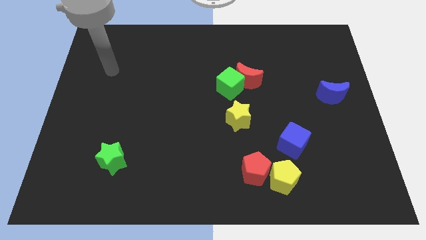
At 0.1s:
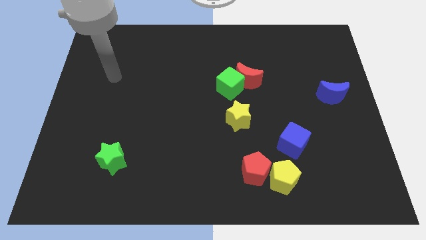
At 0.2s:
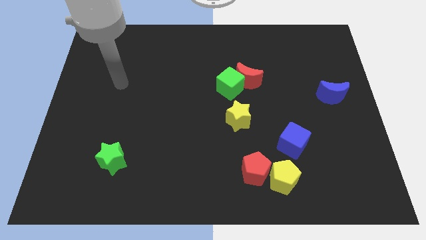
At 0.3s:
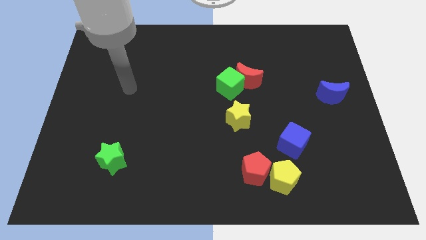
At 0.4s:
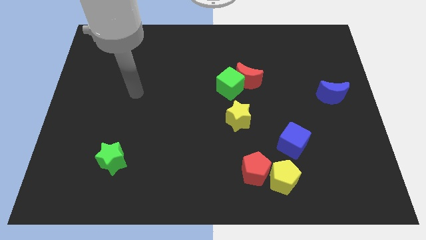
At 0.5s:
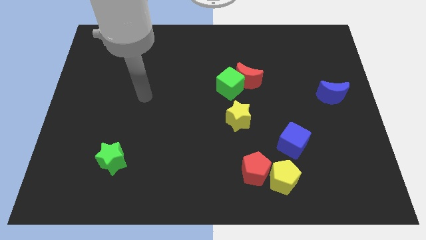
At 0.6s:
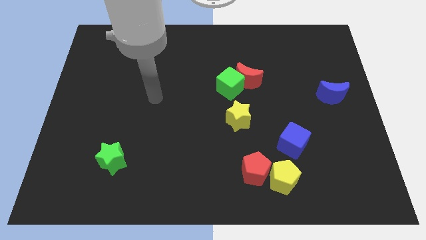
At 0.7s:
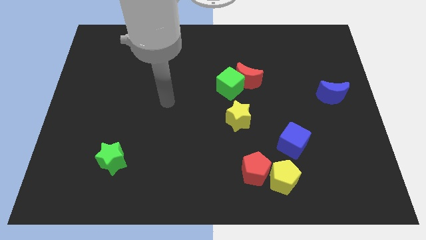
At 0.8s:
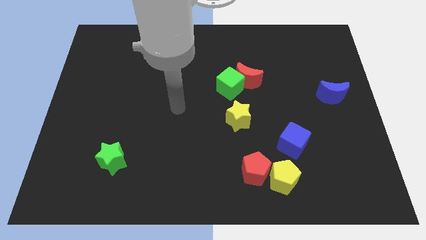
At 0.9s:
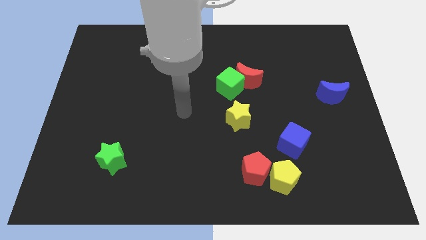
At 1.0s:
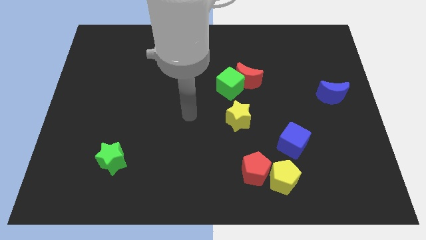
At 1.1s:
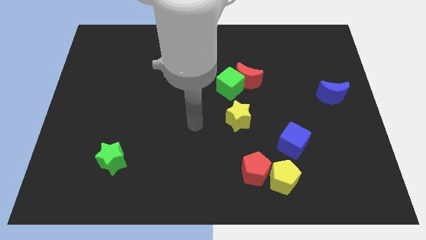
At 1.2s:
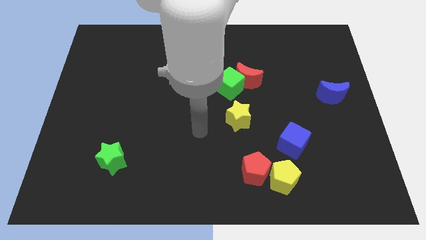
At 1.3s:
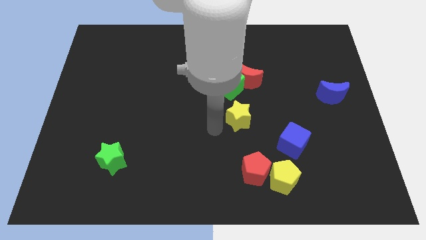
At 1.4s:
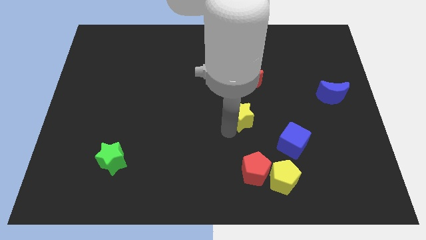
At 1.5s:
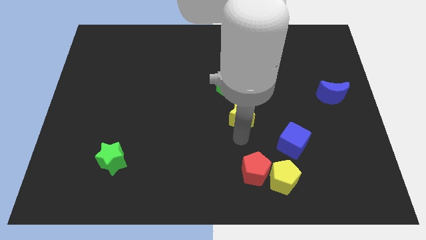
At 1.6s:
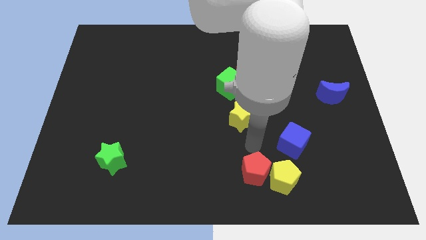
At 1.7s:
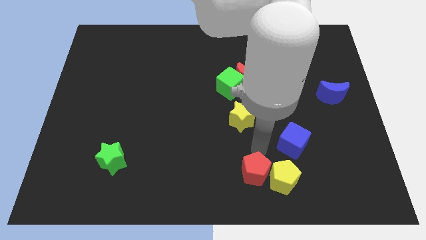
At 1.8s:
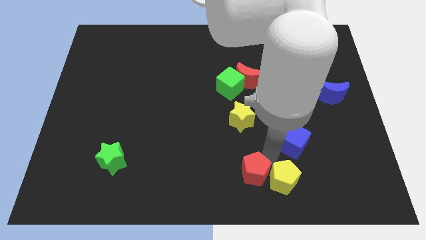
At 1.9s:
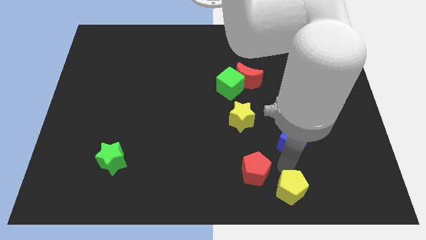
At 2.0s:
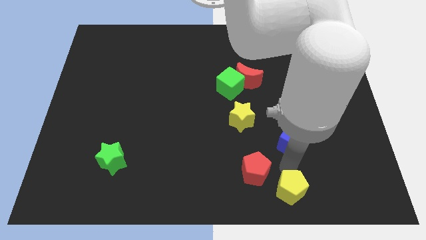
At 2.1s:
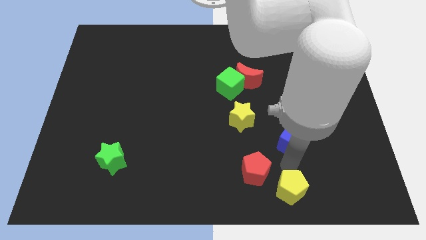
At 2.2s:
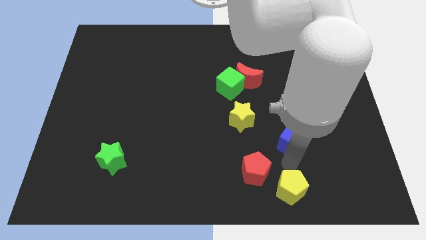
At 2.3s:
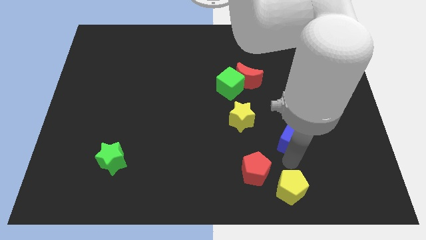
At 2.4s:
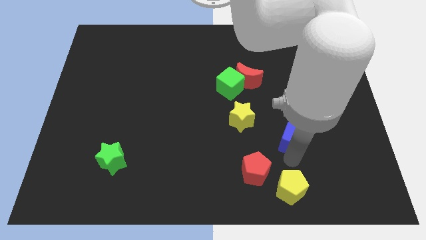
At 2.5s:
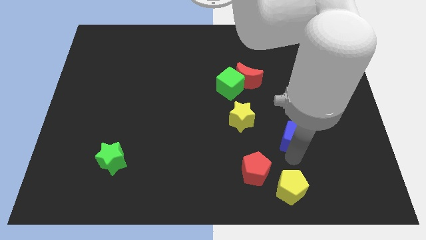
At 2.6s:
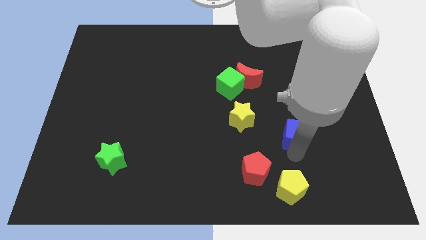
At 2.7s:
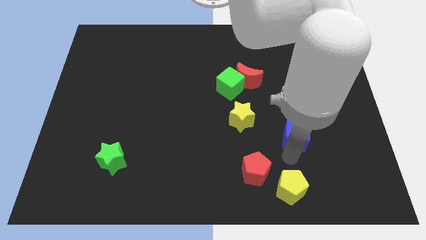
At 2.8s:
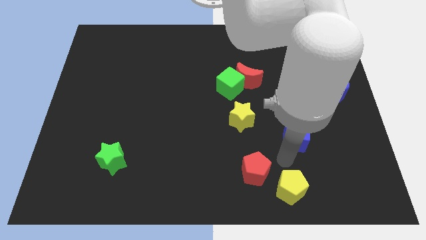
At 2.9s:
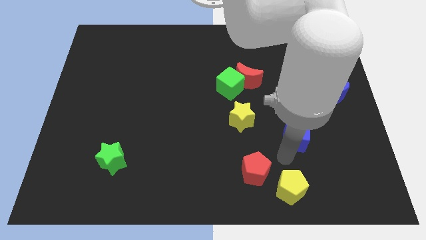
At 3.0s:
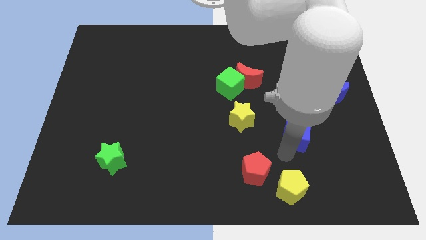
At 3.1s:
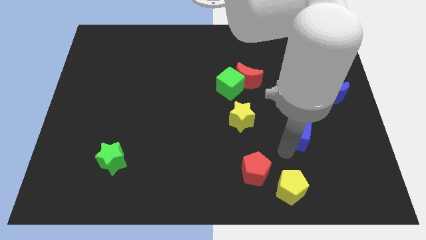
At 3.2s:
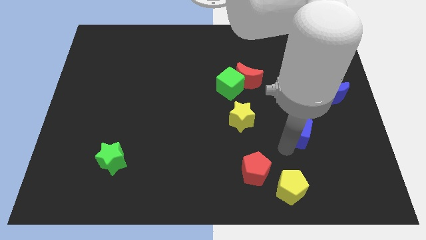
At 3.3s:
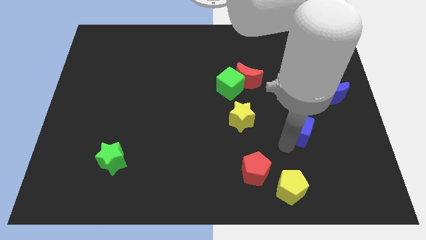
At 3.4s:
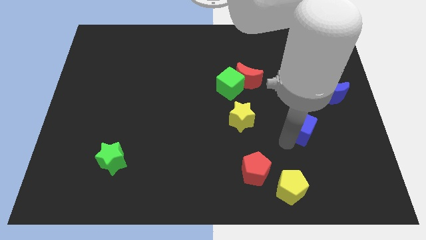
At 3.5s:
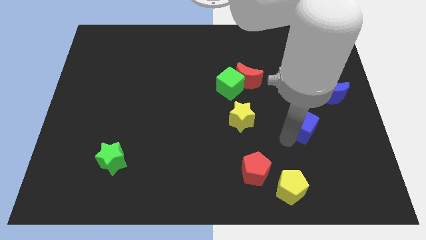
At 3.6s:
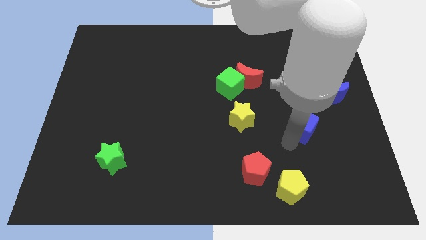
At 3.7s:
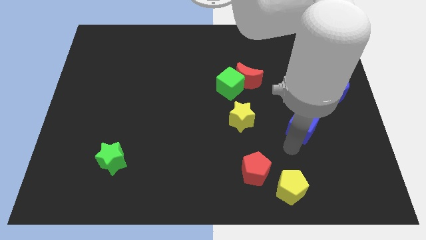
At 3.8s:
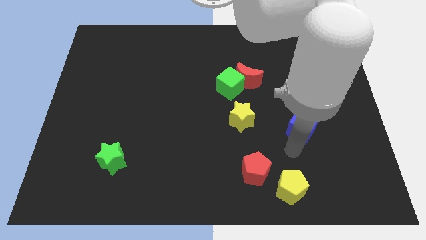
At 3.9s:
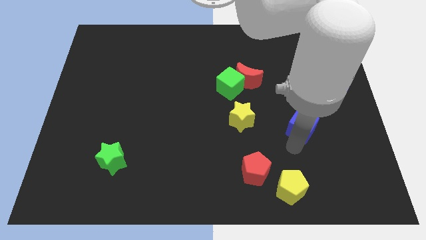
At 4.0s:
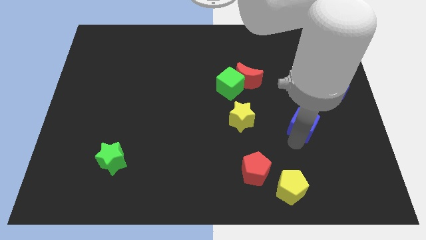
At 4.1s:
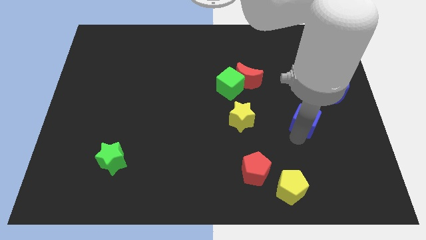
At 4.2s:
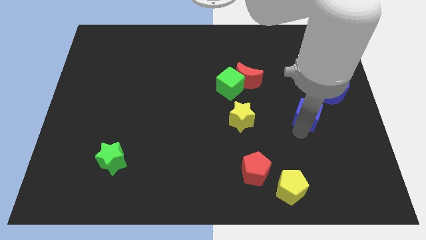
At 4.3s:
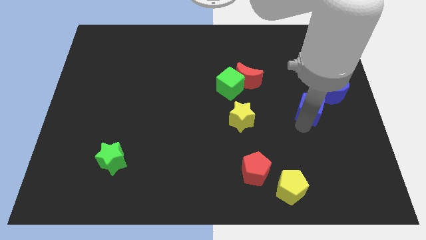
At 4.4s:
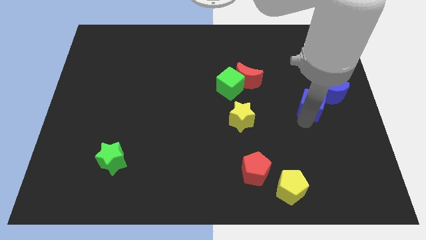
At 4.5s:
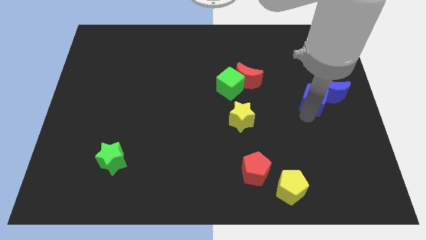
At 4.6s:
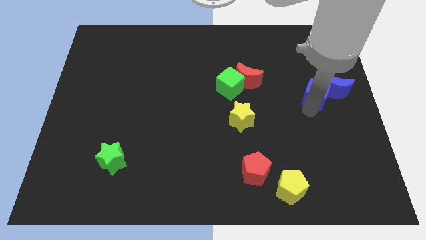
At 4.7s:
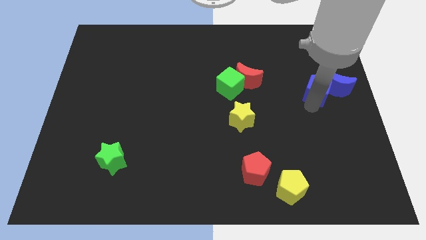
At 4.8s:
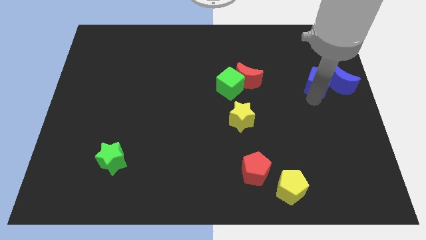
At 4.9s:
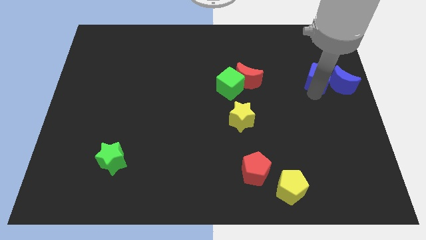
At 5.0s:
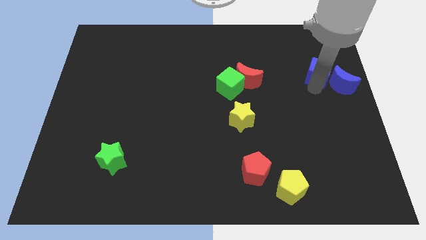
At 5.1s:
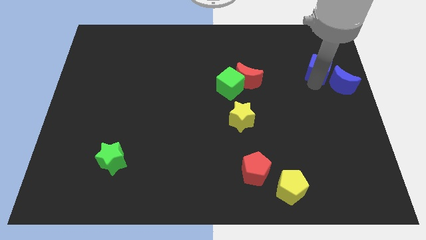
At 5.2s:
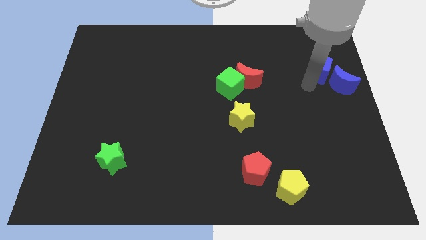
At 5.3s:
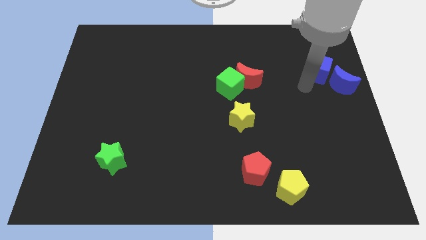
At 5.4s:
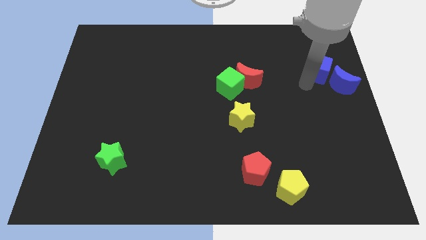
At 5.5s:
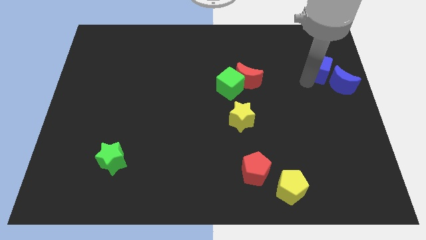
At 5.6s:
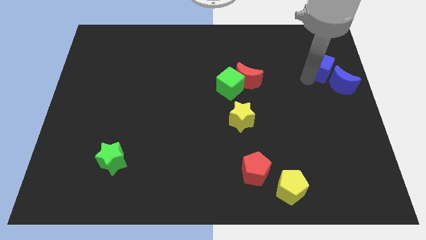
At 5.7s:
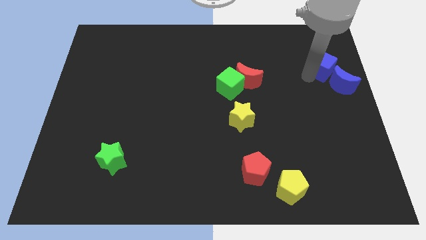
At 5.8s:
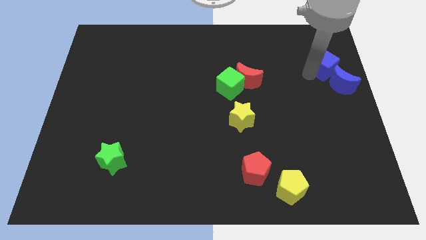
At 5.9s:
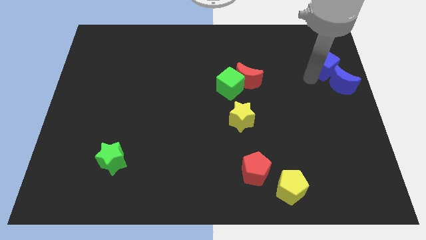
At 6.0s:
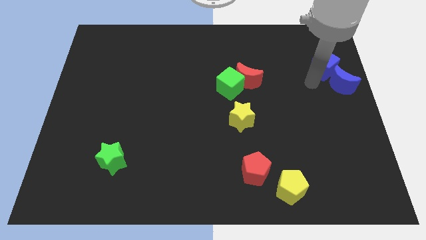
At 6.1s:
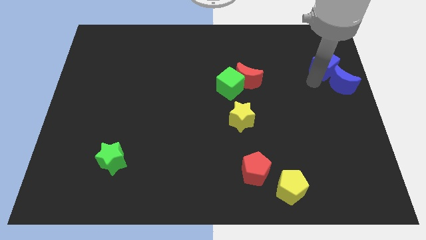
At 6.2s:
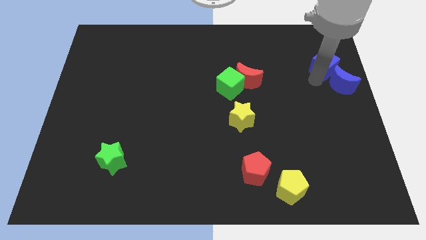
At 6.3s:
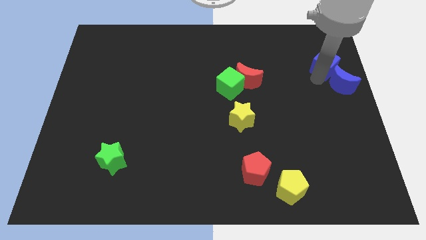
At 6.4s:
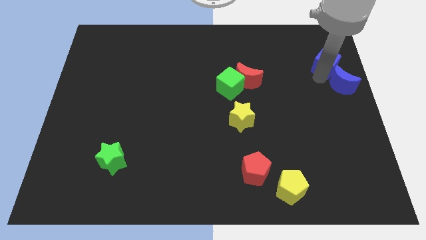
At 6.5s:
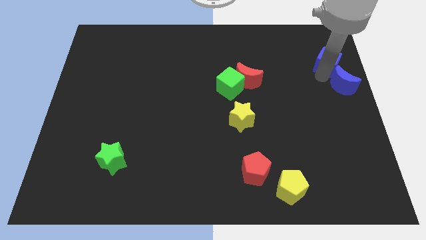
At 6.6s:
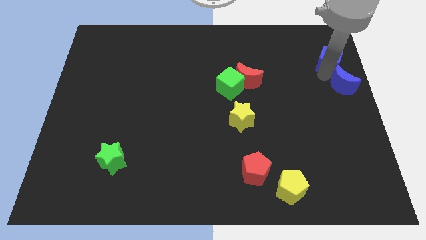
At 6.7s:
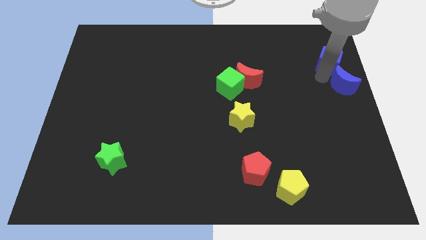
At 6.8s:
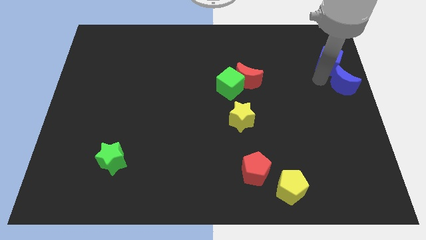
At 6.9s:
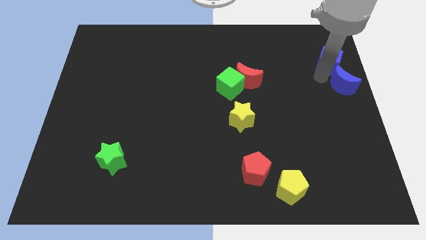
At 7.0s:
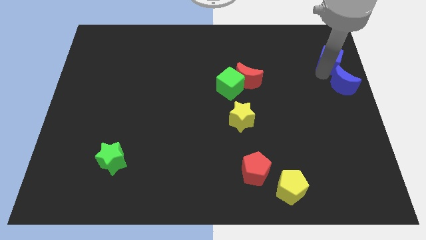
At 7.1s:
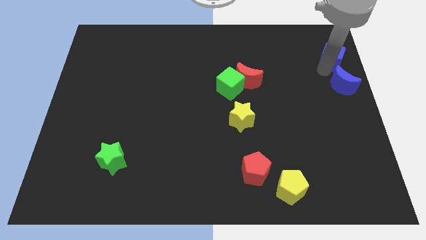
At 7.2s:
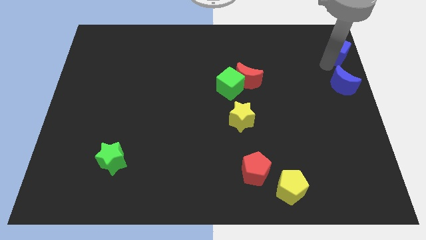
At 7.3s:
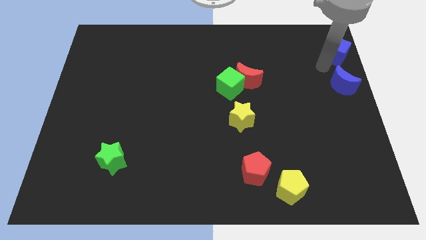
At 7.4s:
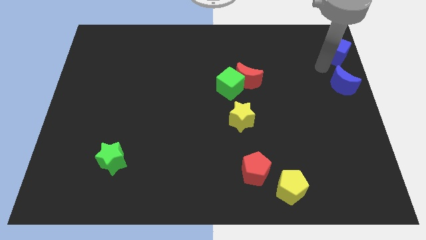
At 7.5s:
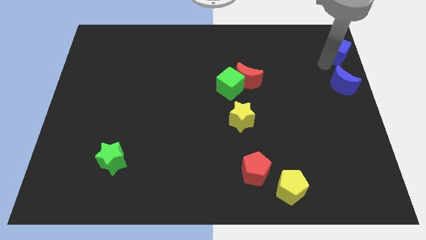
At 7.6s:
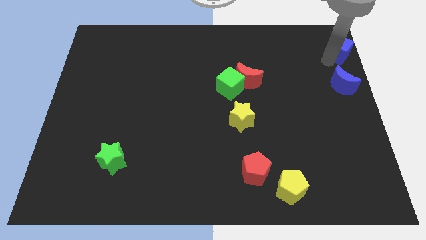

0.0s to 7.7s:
push the blue cube to the top right of the board
